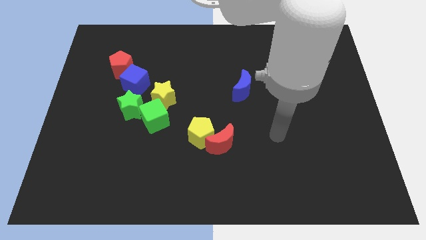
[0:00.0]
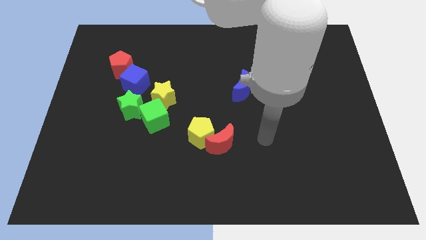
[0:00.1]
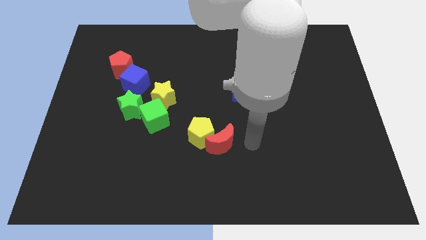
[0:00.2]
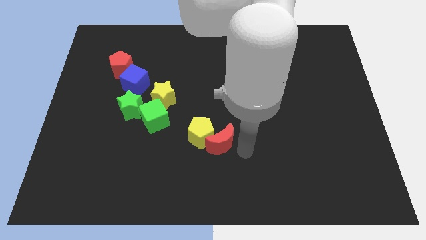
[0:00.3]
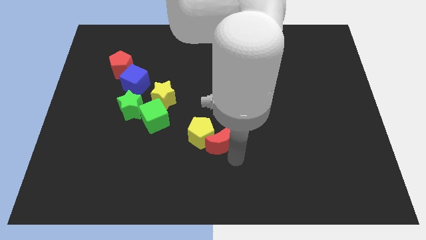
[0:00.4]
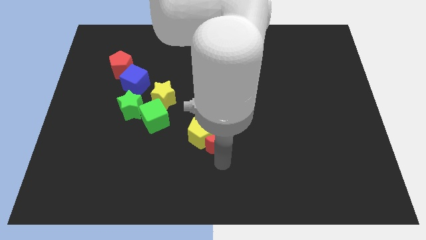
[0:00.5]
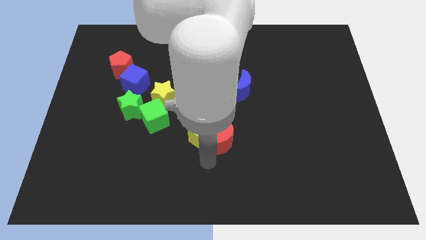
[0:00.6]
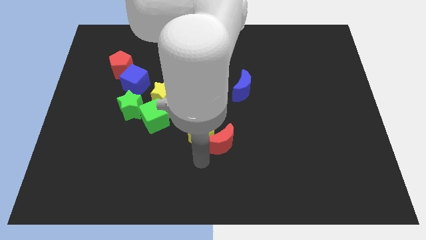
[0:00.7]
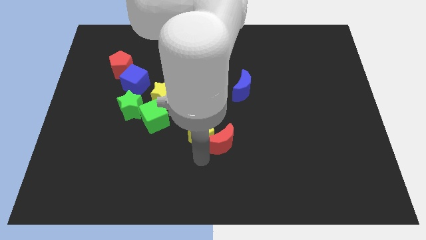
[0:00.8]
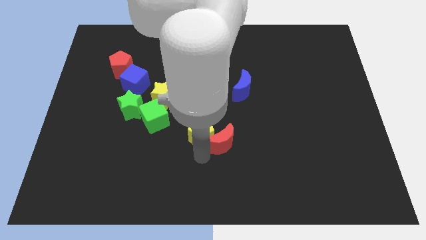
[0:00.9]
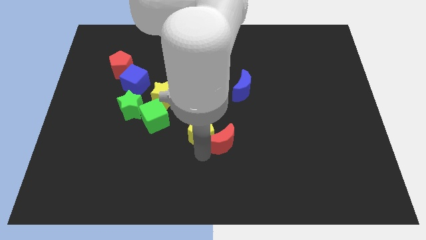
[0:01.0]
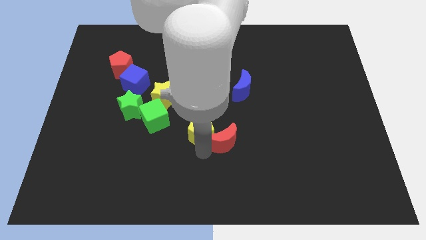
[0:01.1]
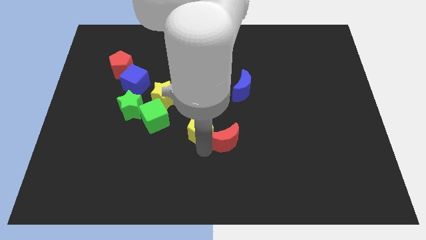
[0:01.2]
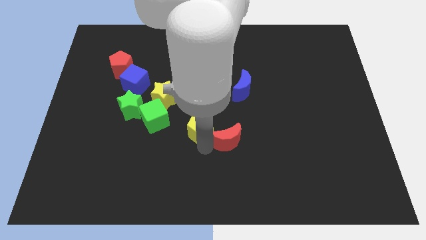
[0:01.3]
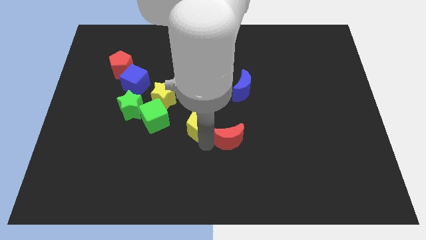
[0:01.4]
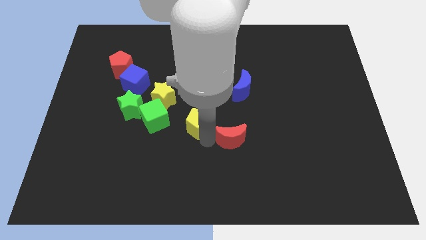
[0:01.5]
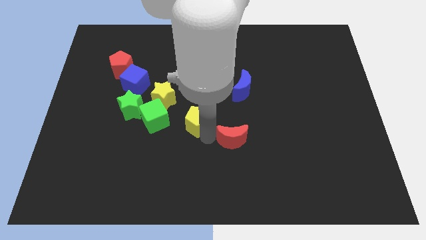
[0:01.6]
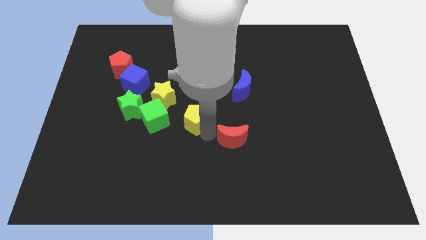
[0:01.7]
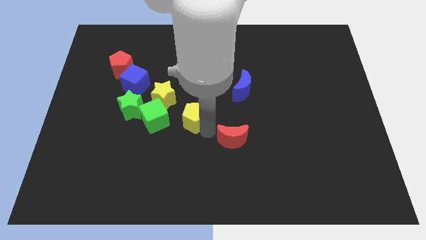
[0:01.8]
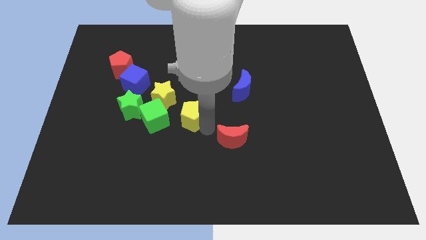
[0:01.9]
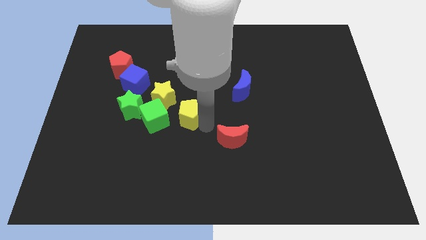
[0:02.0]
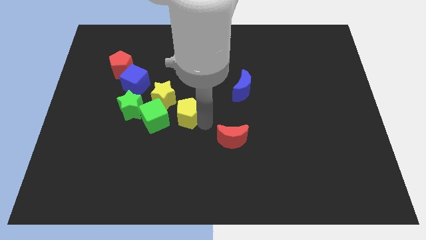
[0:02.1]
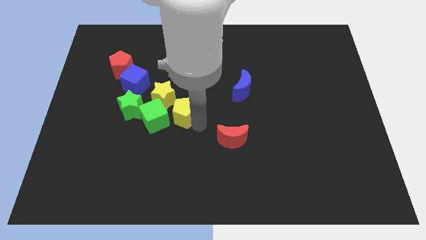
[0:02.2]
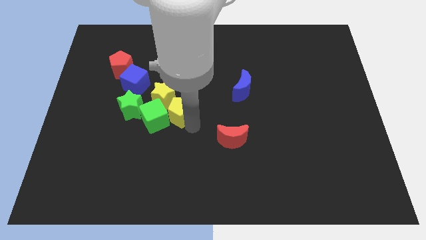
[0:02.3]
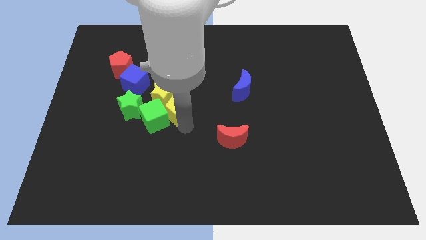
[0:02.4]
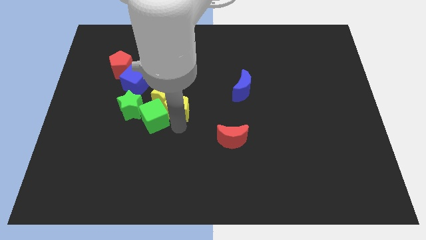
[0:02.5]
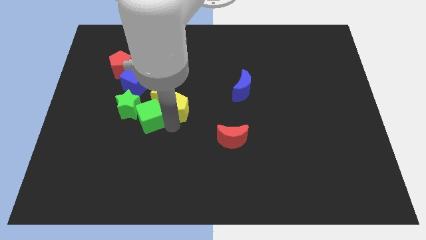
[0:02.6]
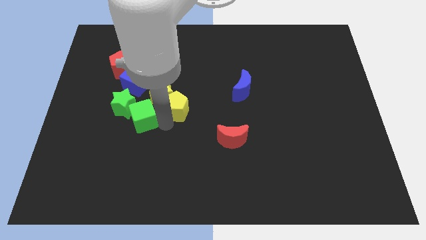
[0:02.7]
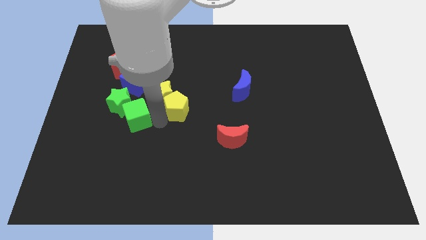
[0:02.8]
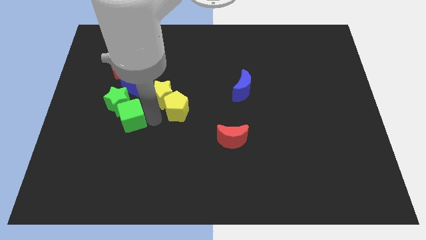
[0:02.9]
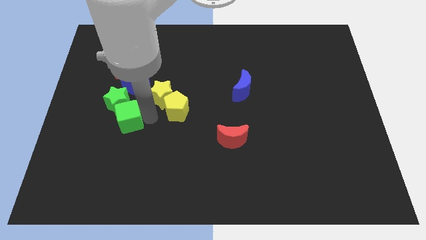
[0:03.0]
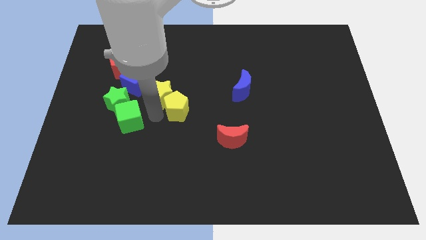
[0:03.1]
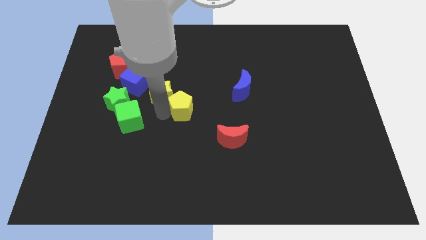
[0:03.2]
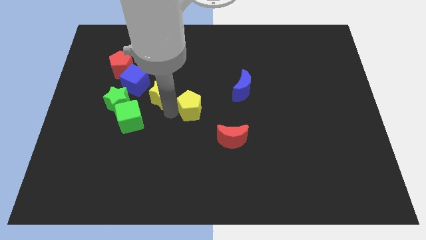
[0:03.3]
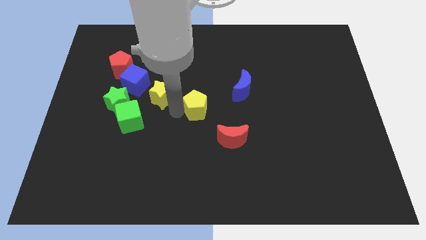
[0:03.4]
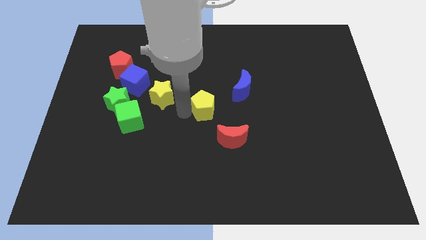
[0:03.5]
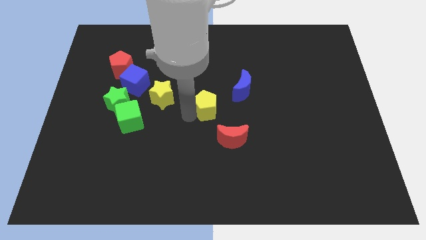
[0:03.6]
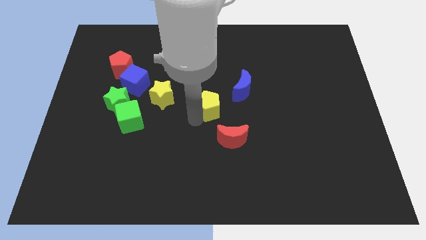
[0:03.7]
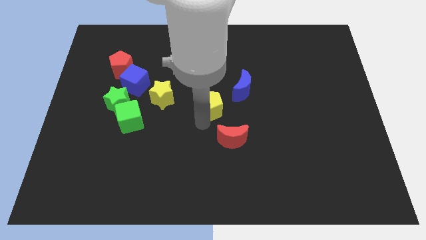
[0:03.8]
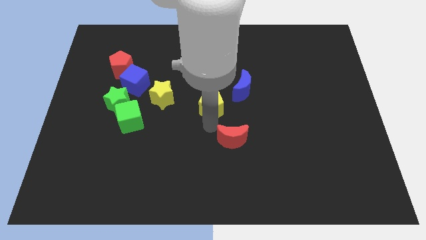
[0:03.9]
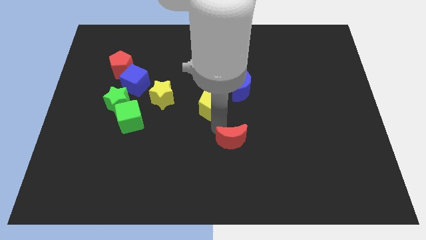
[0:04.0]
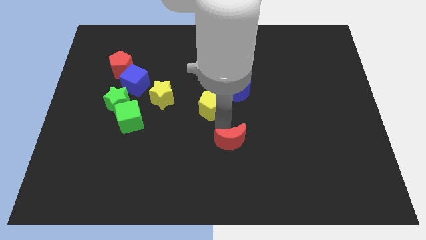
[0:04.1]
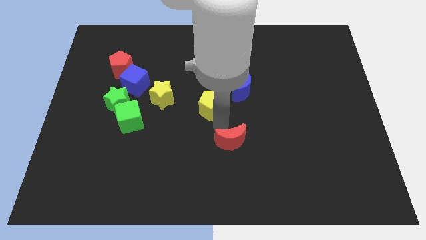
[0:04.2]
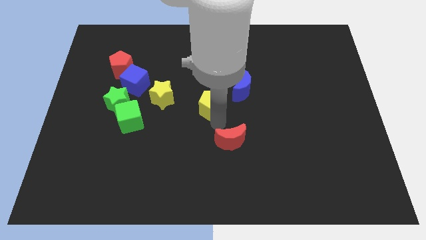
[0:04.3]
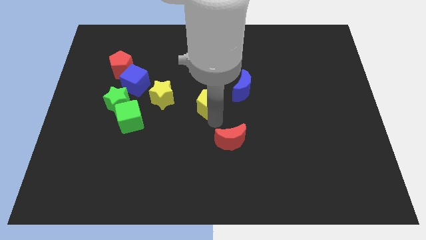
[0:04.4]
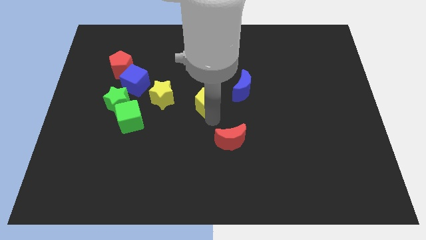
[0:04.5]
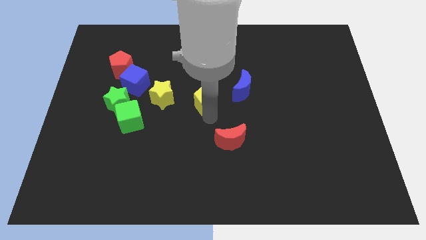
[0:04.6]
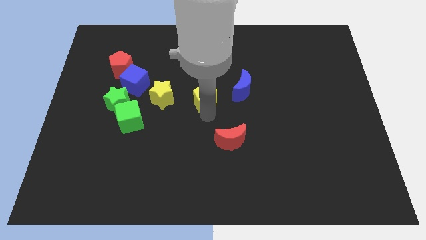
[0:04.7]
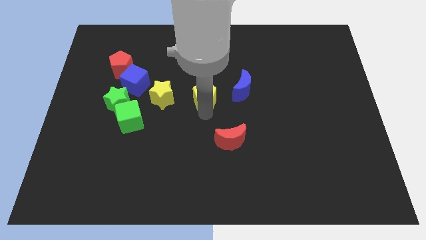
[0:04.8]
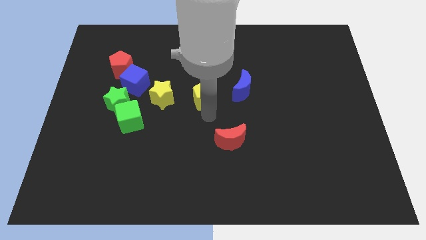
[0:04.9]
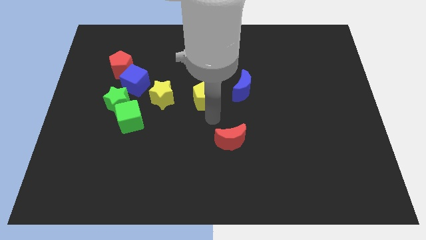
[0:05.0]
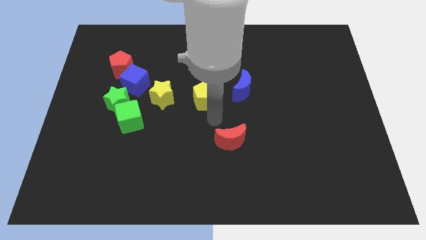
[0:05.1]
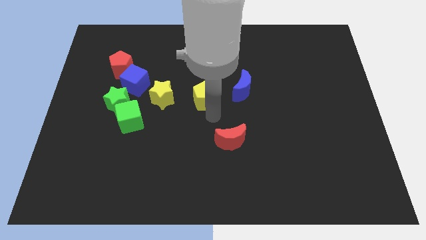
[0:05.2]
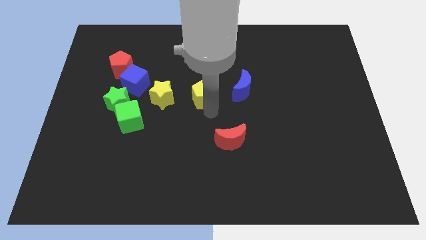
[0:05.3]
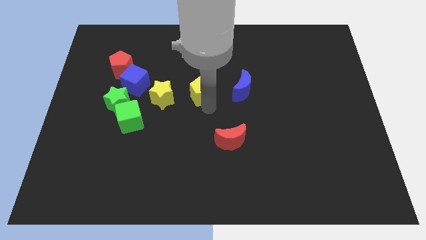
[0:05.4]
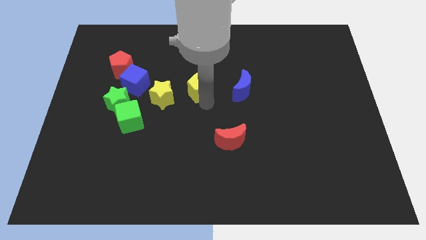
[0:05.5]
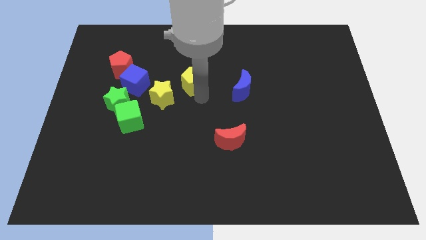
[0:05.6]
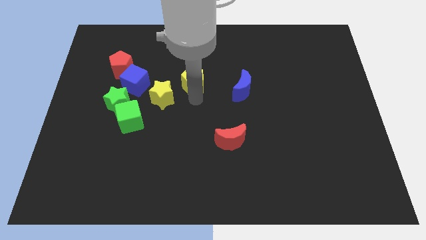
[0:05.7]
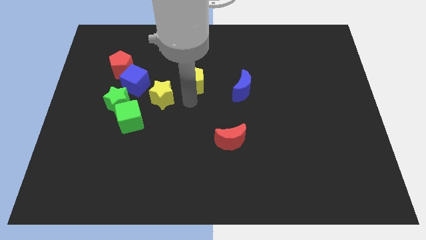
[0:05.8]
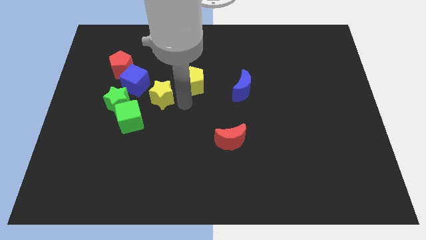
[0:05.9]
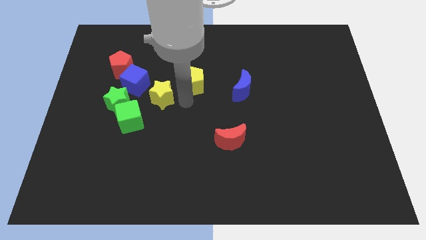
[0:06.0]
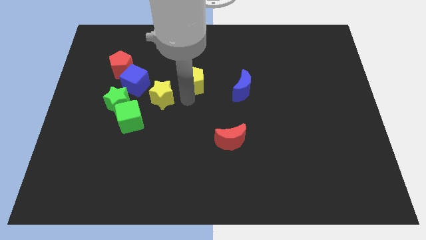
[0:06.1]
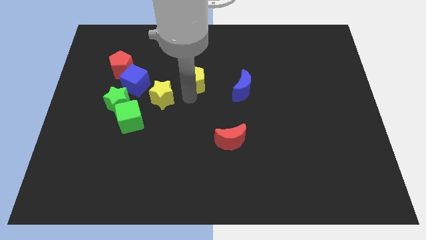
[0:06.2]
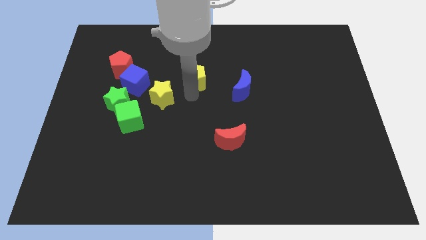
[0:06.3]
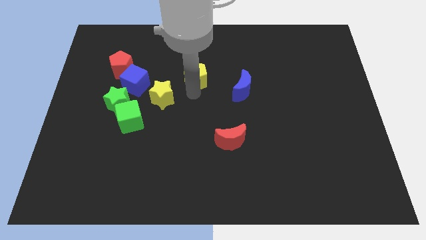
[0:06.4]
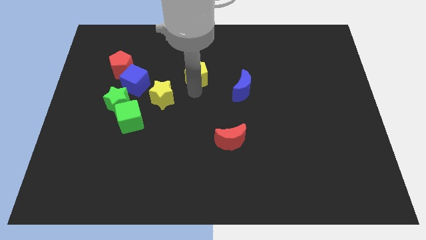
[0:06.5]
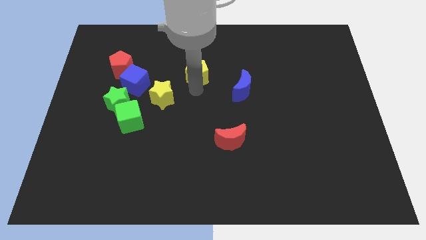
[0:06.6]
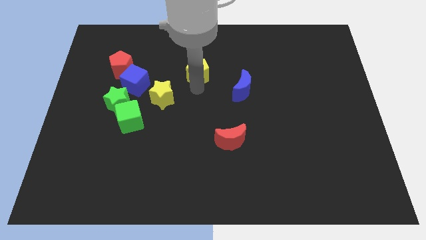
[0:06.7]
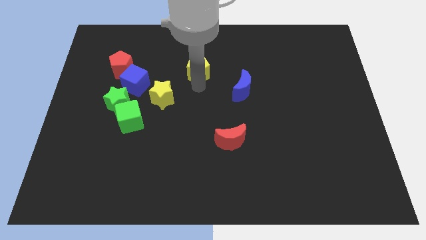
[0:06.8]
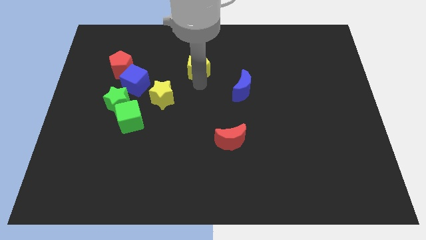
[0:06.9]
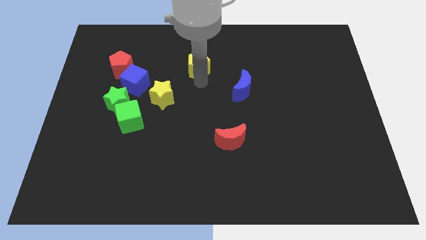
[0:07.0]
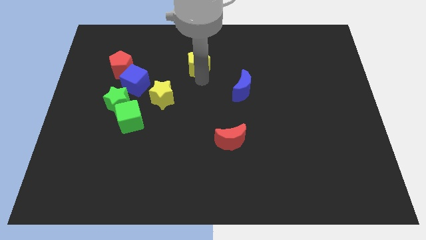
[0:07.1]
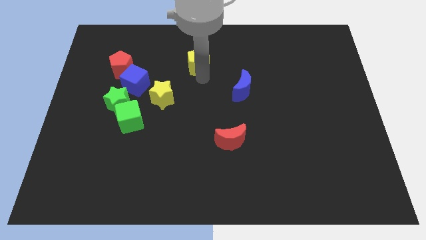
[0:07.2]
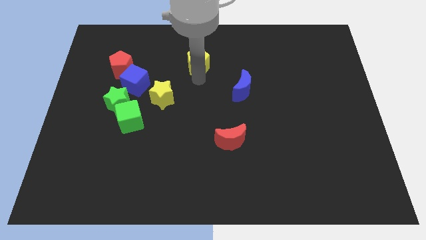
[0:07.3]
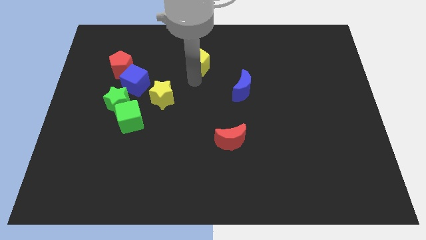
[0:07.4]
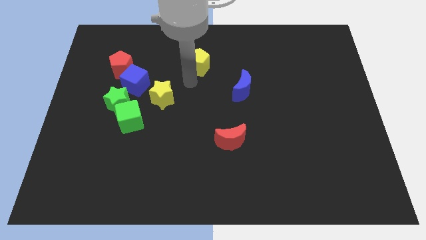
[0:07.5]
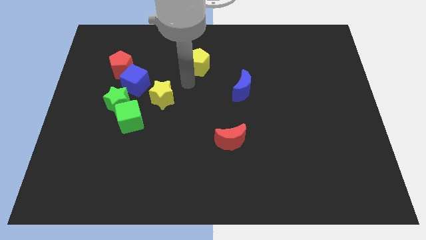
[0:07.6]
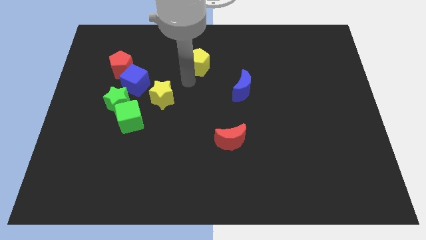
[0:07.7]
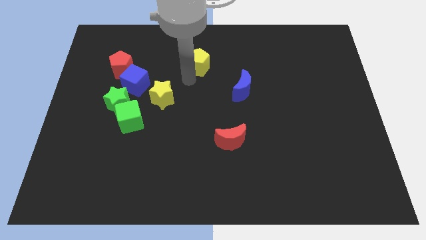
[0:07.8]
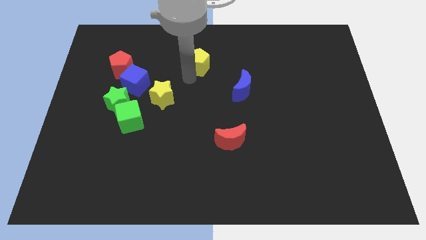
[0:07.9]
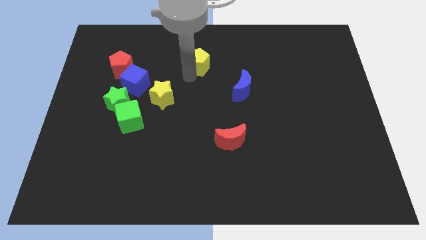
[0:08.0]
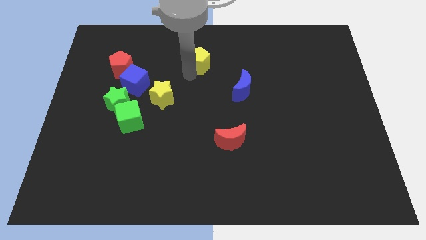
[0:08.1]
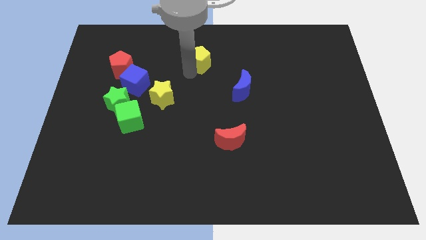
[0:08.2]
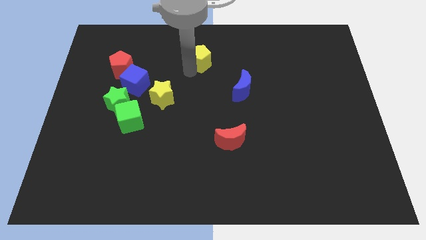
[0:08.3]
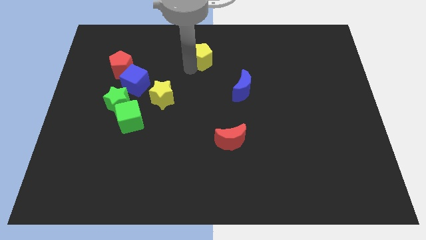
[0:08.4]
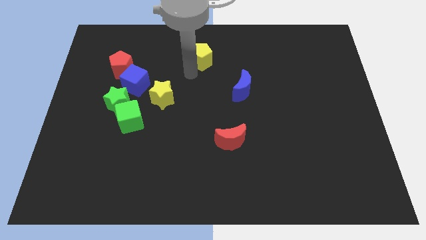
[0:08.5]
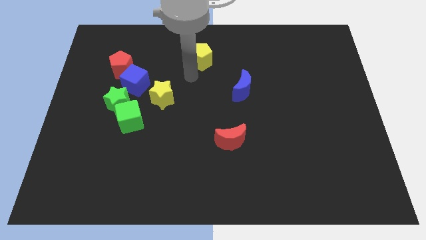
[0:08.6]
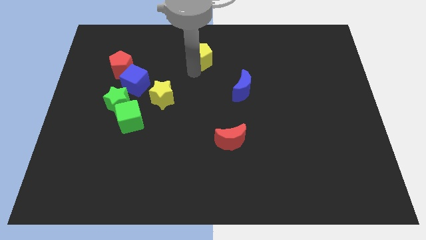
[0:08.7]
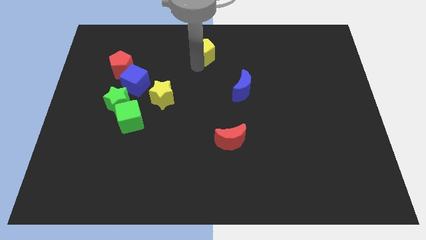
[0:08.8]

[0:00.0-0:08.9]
move the yellow pentagon to the towards your base
